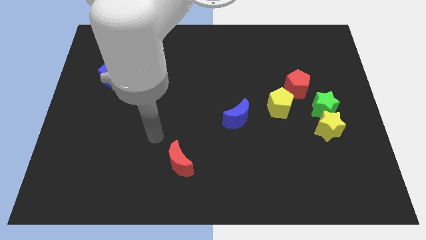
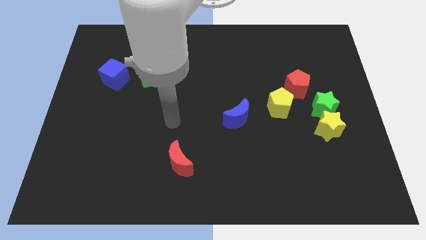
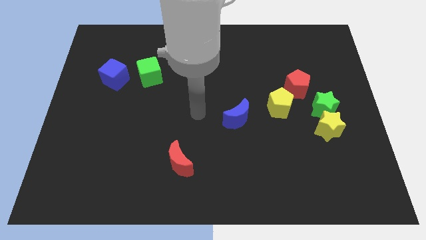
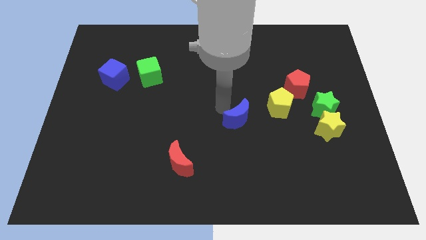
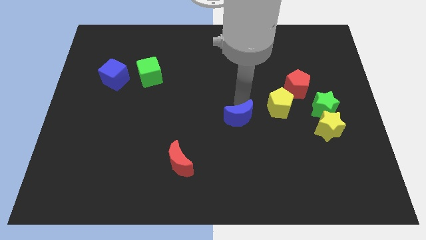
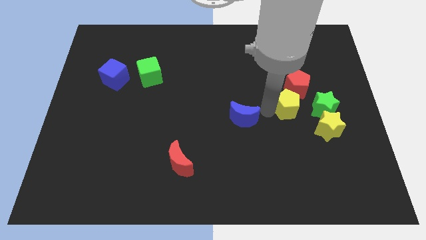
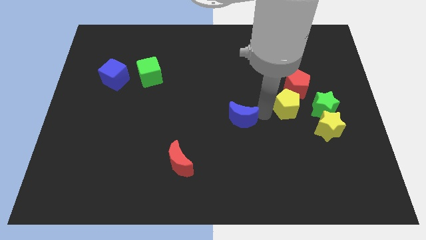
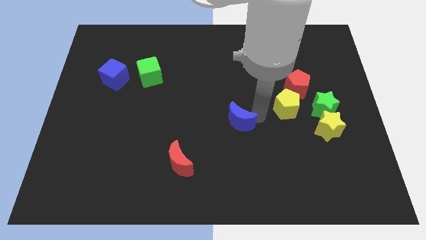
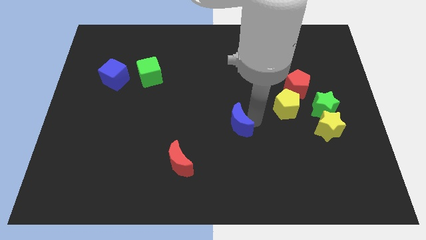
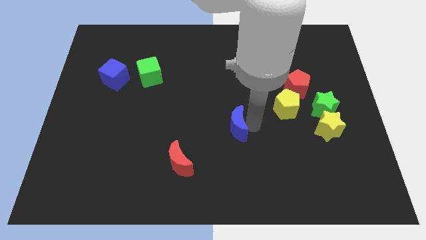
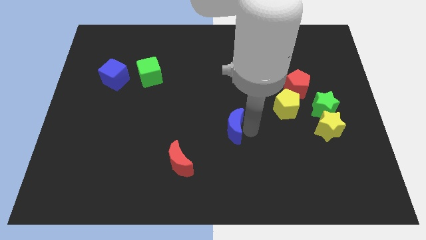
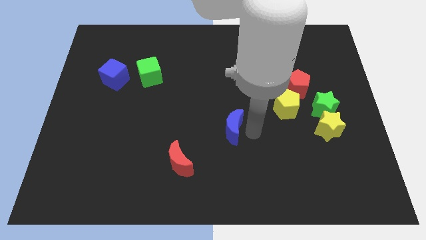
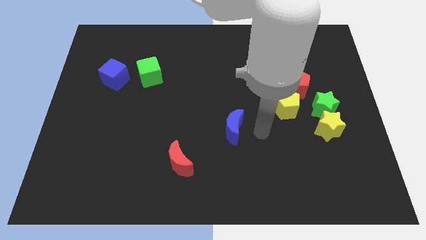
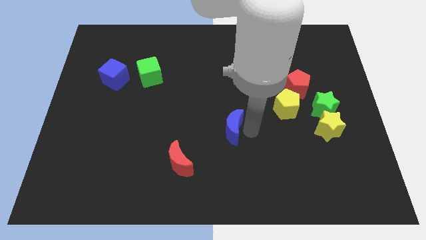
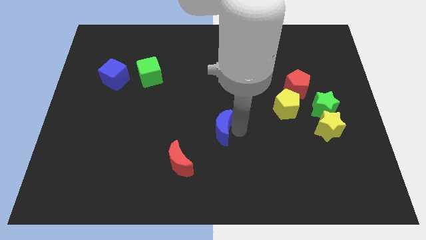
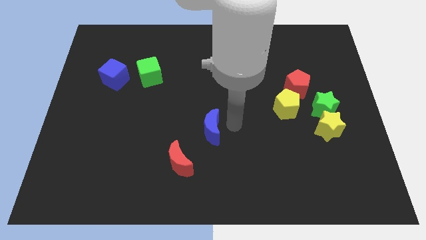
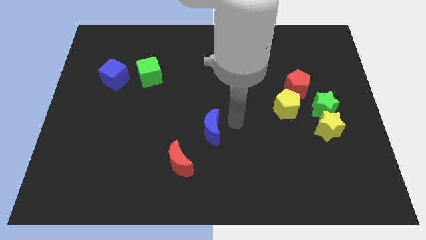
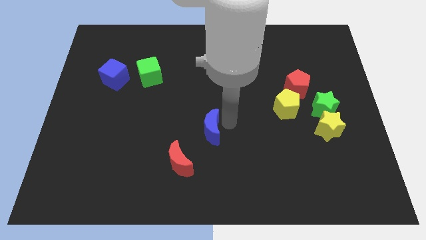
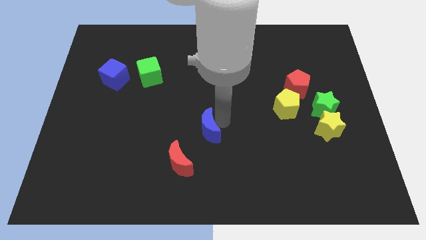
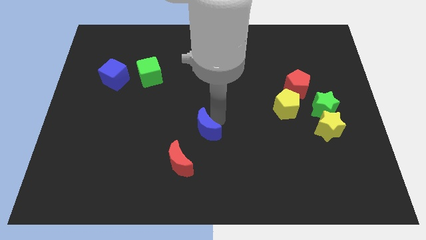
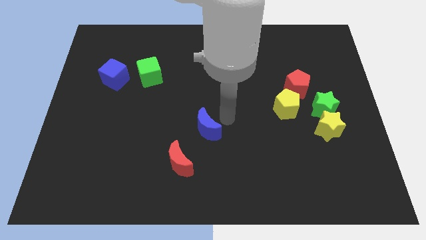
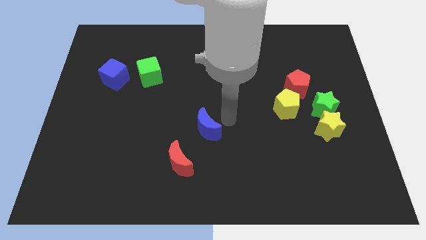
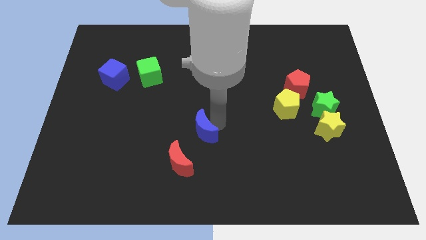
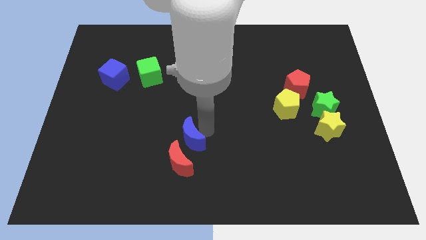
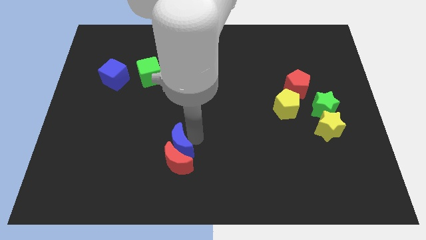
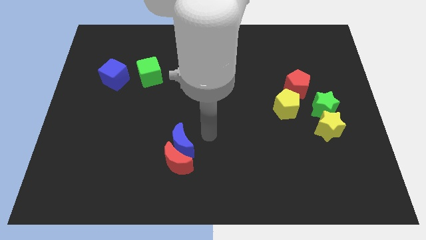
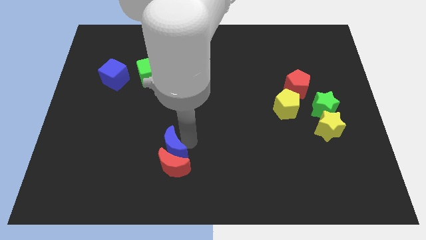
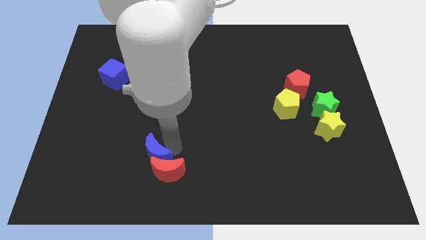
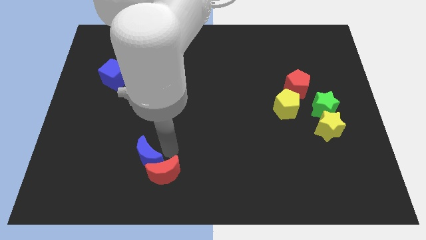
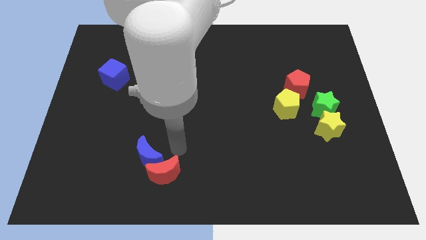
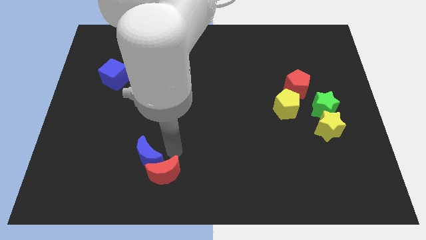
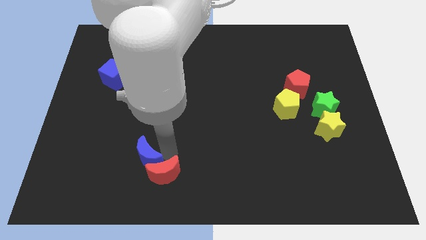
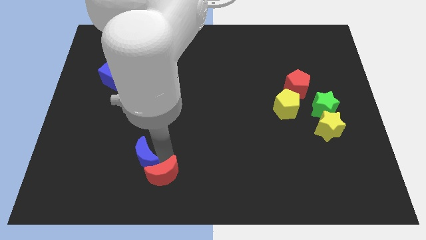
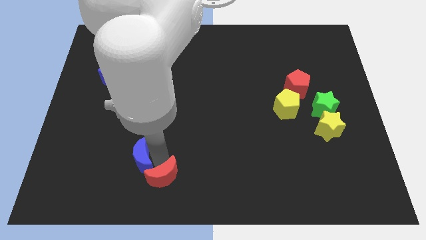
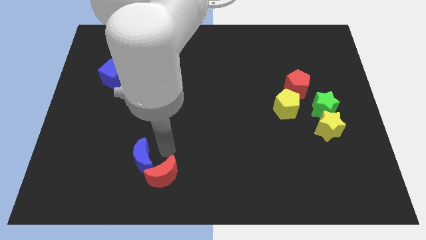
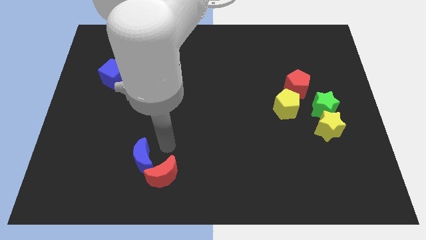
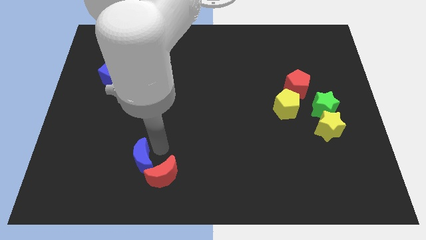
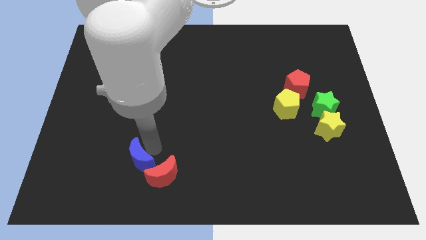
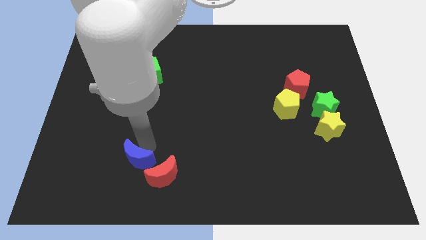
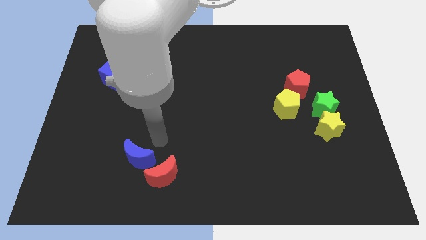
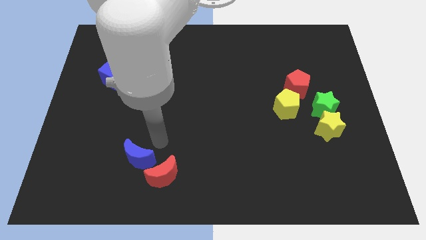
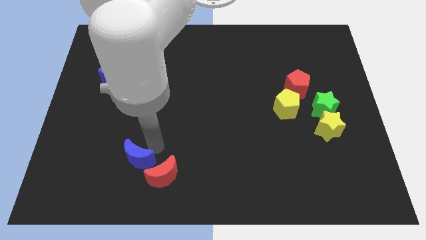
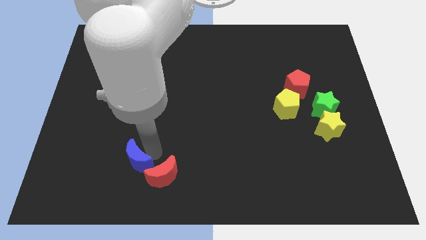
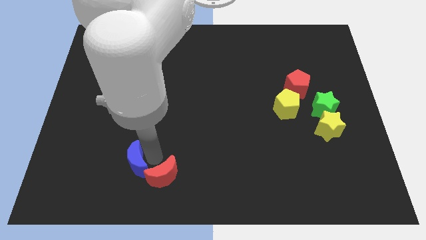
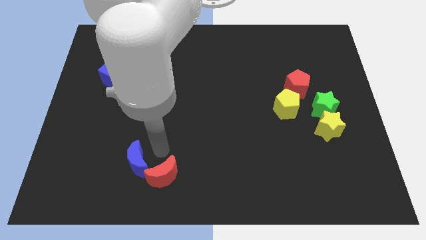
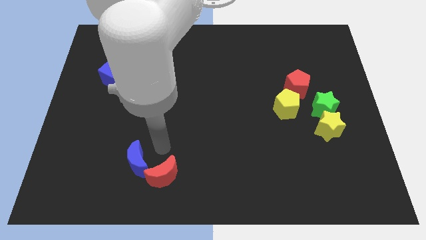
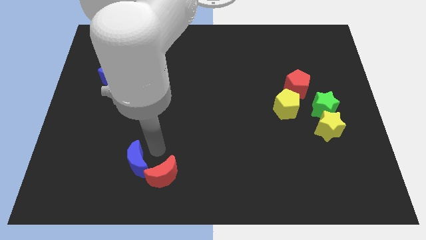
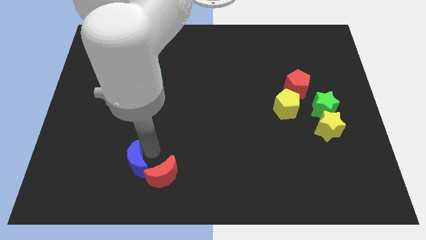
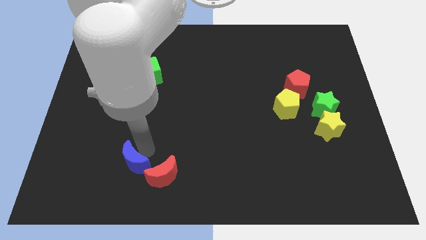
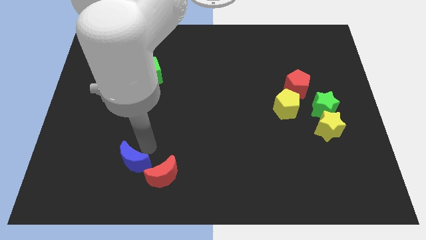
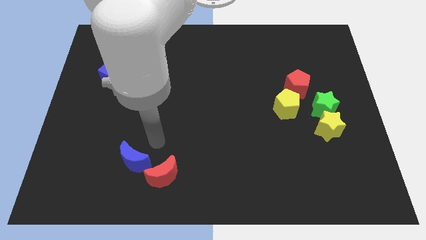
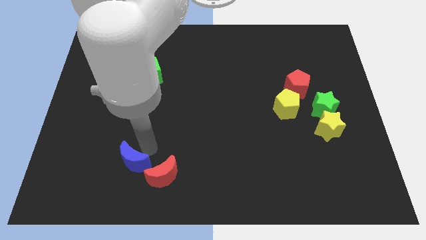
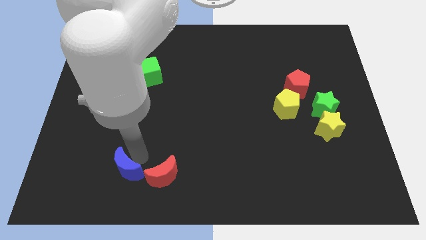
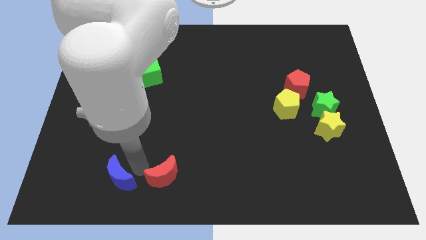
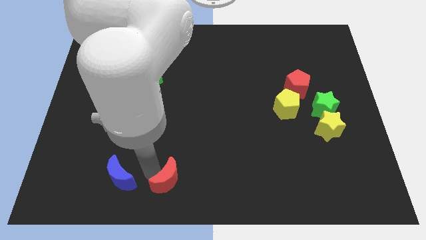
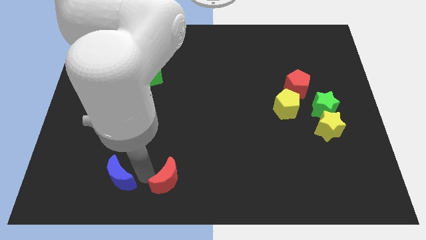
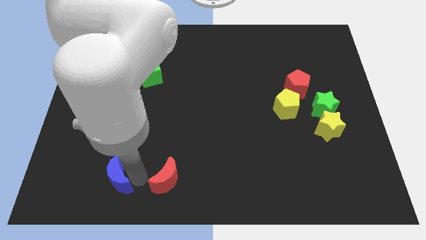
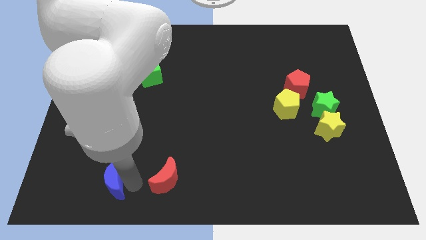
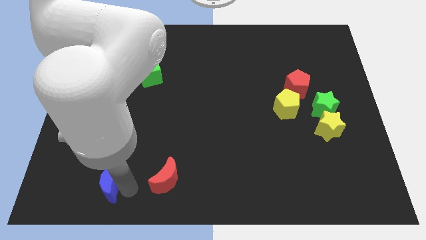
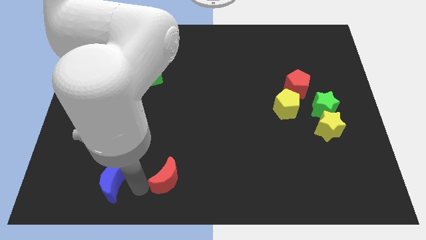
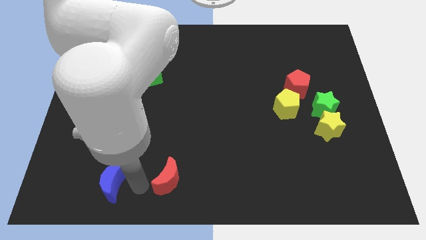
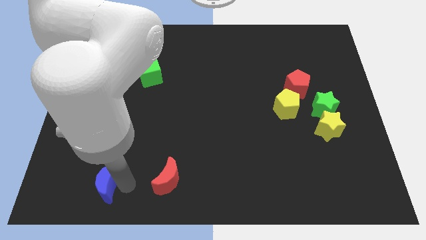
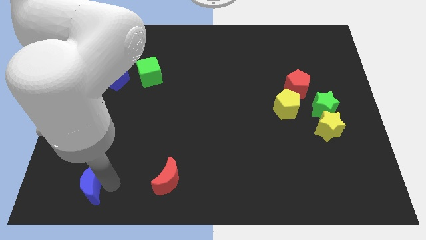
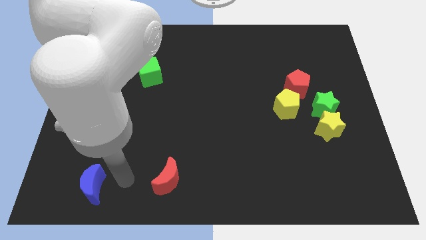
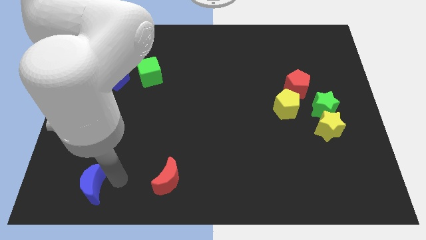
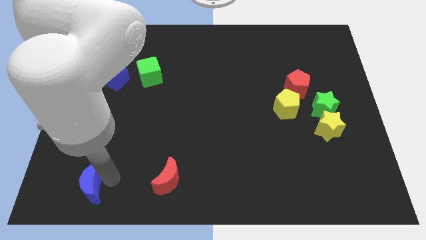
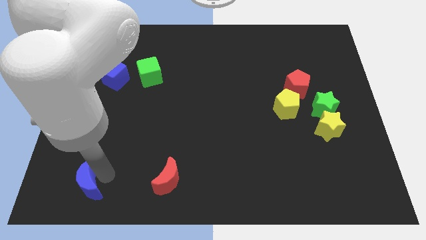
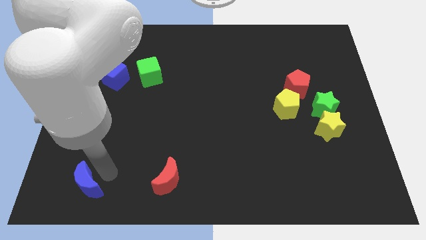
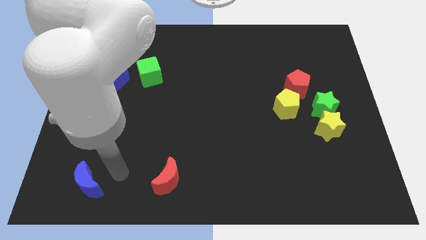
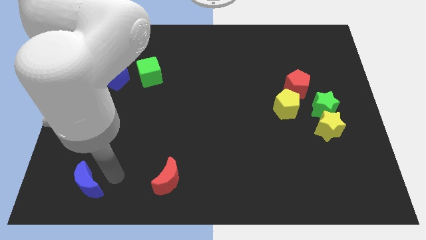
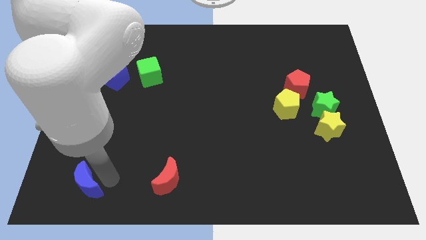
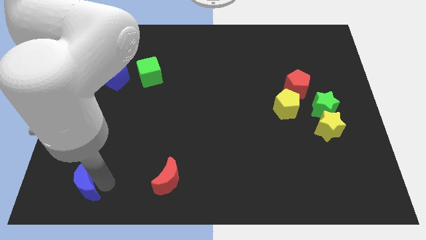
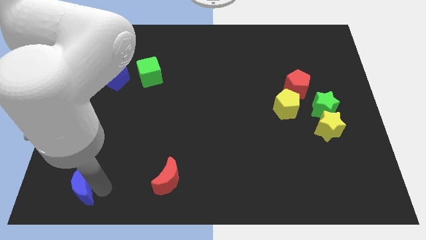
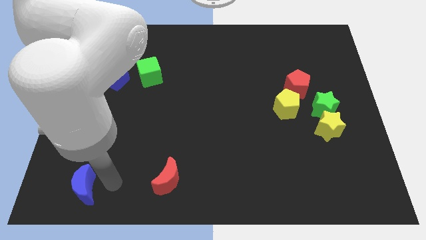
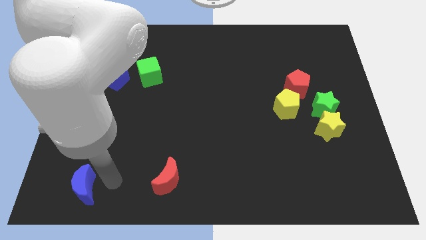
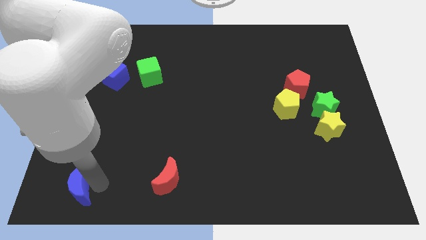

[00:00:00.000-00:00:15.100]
push the blue moon to the bottom left corner

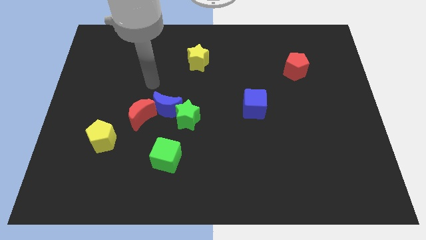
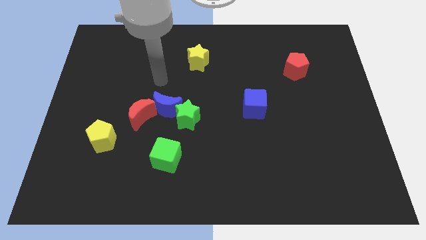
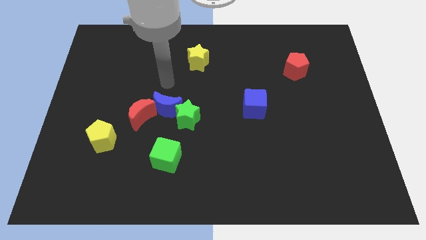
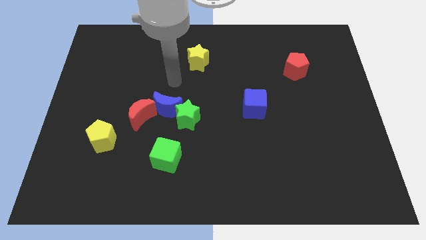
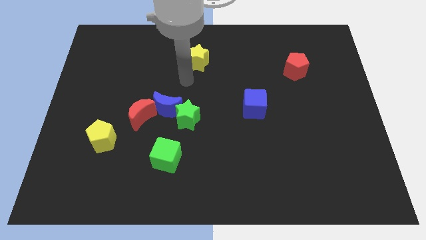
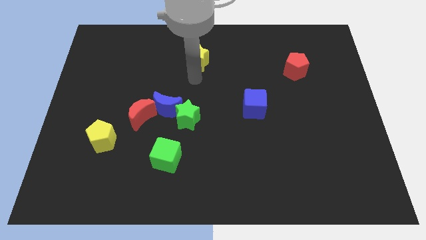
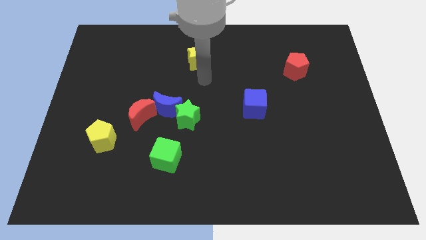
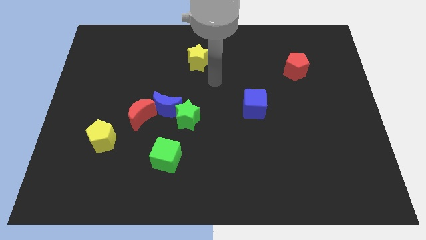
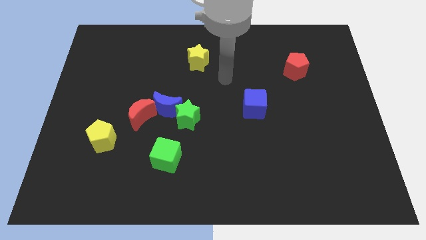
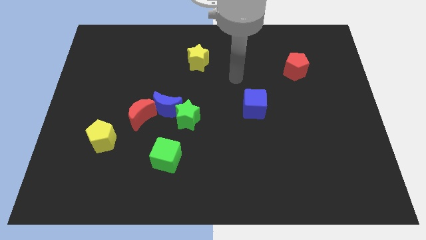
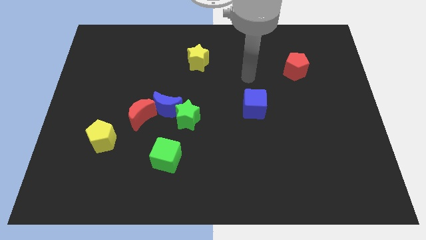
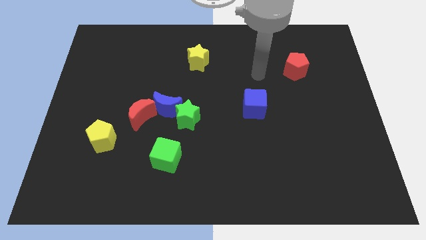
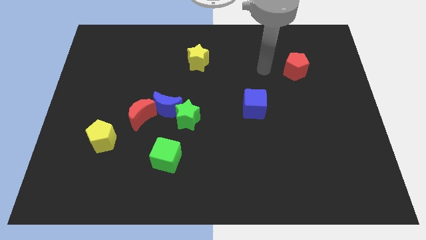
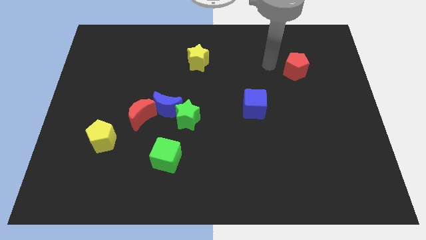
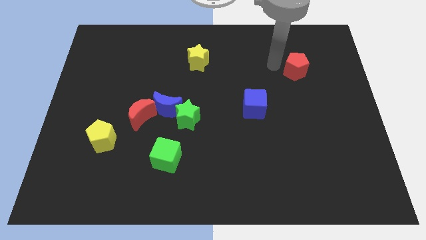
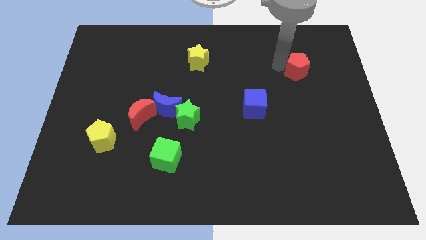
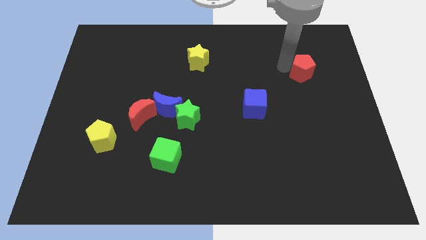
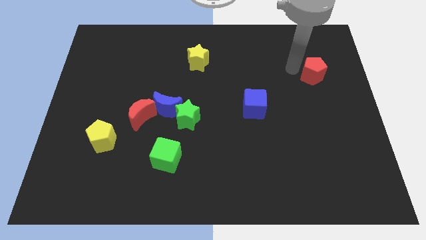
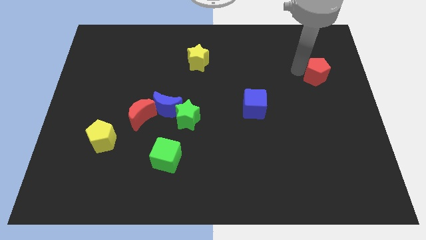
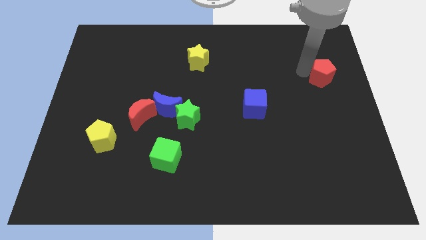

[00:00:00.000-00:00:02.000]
slide the red pentagon to the right side
